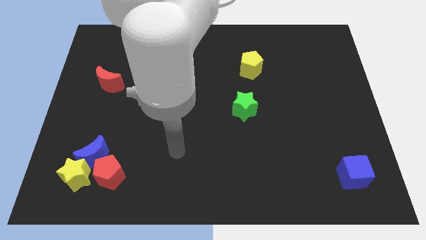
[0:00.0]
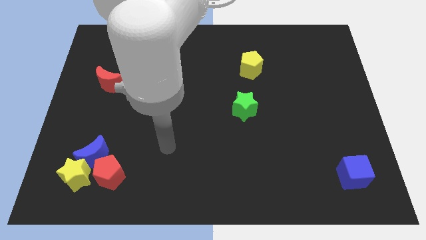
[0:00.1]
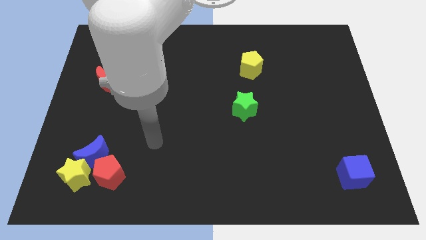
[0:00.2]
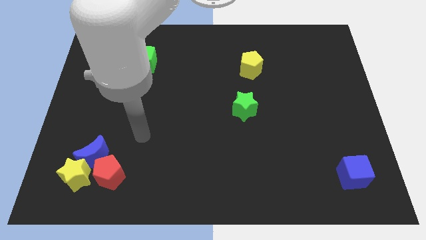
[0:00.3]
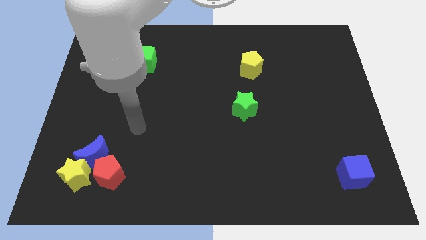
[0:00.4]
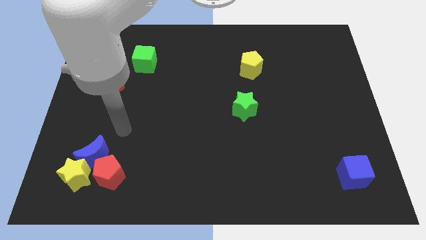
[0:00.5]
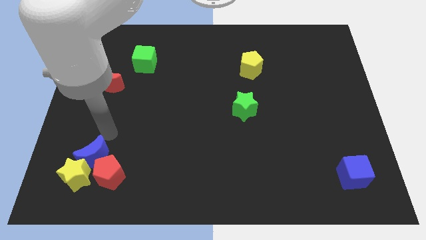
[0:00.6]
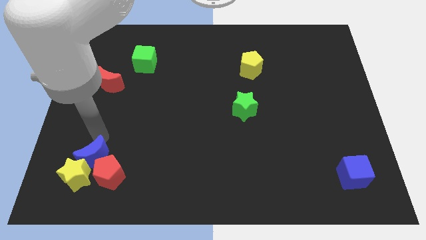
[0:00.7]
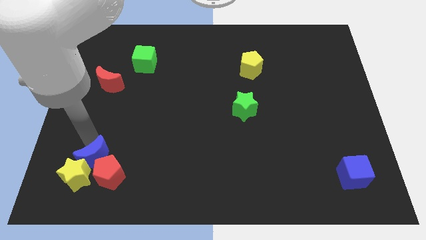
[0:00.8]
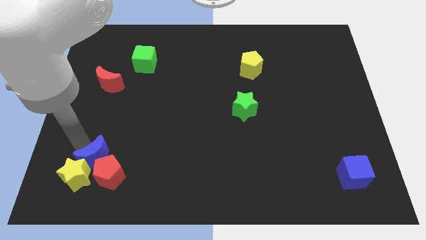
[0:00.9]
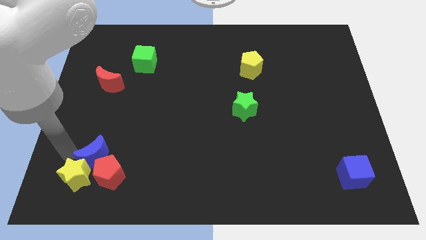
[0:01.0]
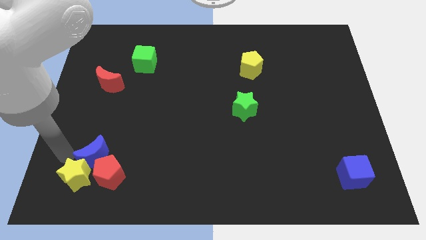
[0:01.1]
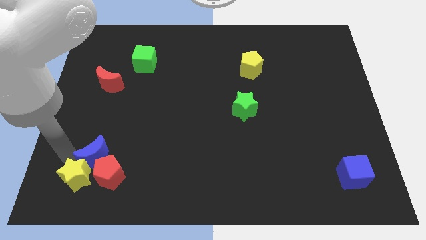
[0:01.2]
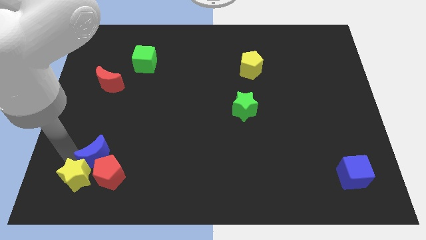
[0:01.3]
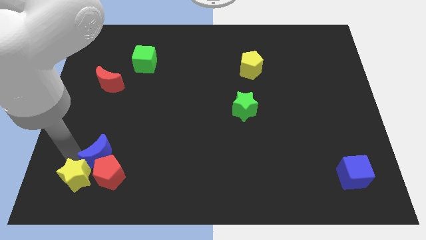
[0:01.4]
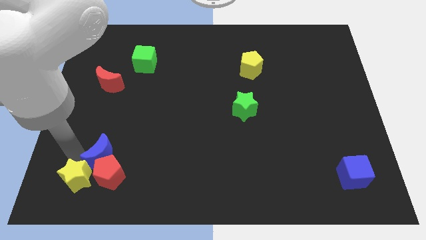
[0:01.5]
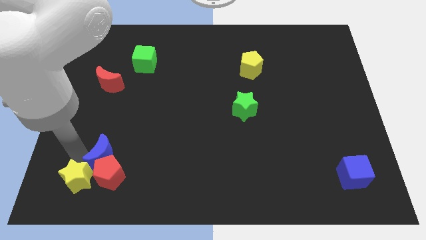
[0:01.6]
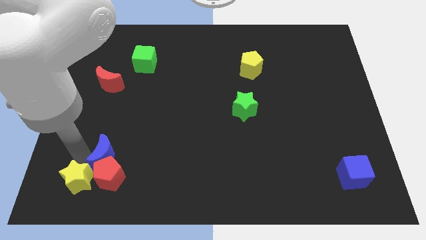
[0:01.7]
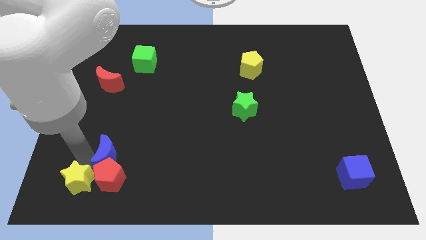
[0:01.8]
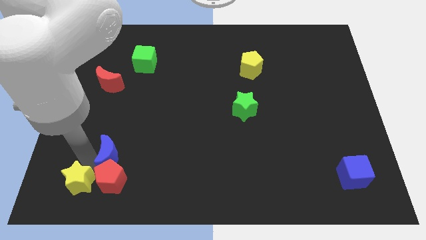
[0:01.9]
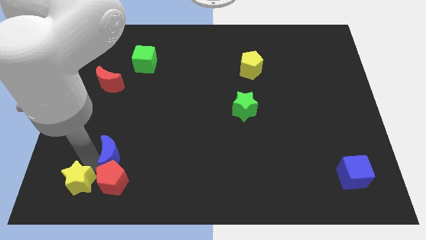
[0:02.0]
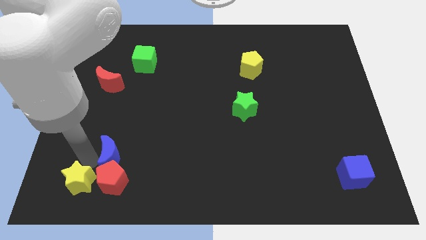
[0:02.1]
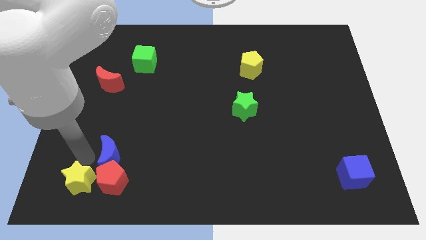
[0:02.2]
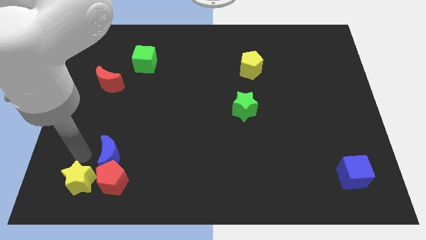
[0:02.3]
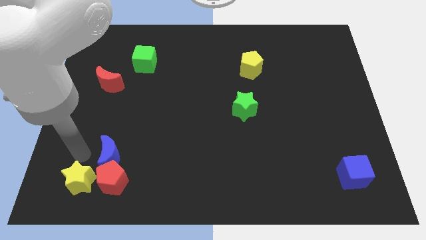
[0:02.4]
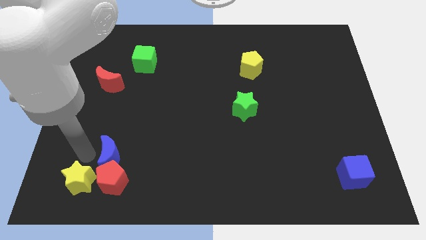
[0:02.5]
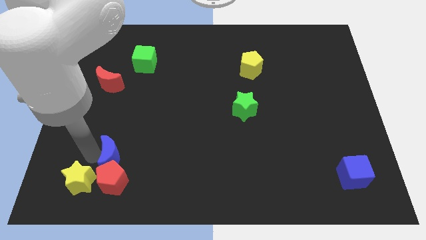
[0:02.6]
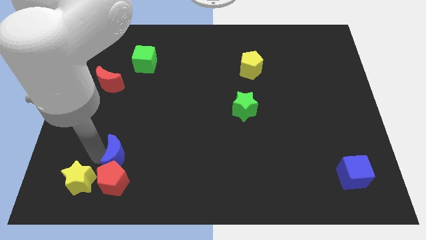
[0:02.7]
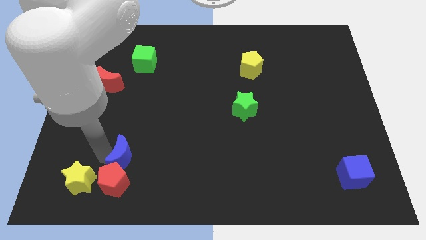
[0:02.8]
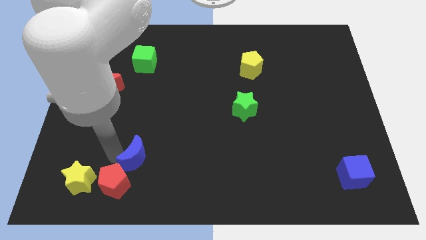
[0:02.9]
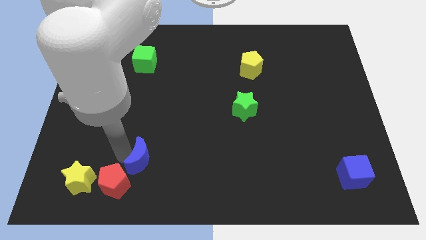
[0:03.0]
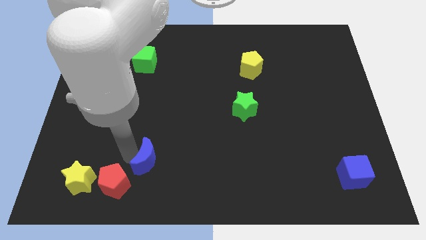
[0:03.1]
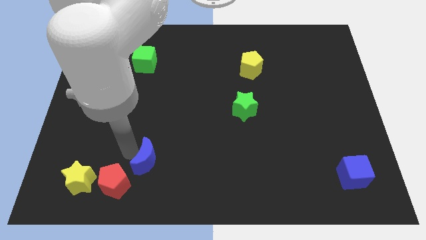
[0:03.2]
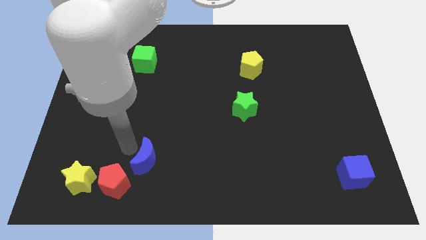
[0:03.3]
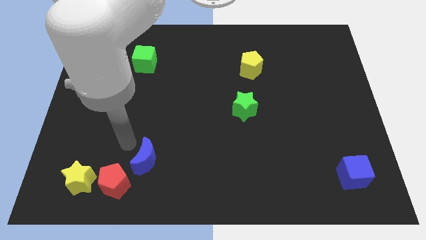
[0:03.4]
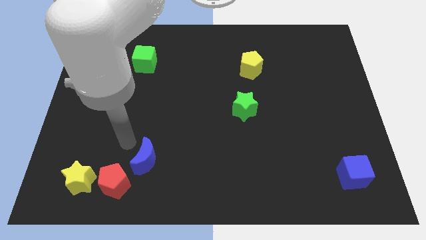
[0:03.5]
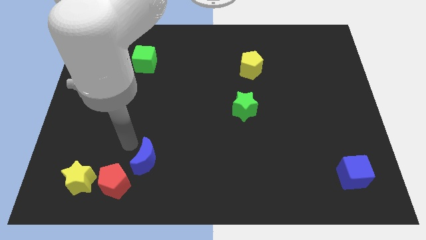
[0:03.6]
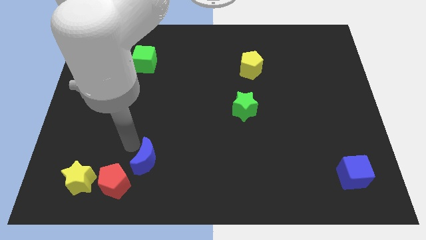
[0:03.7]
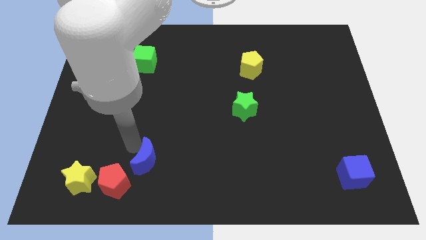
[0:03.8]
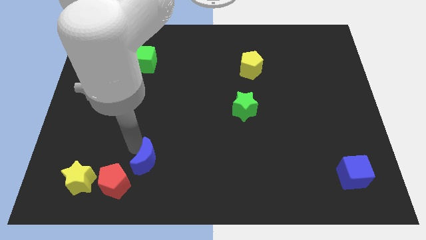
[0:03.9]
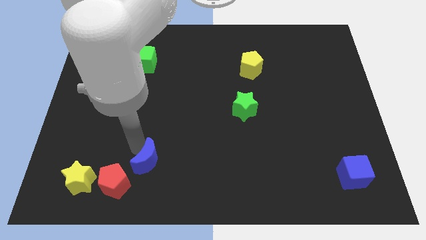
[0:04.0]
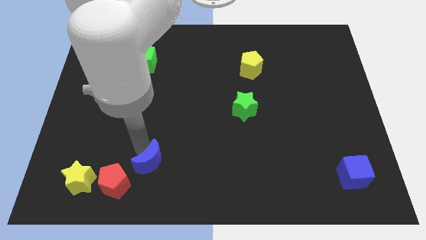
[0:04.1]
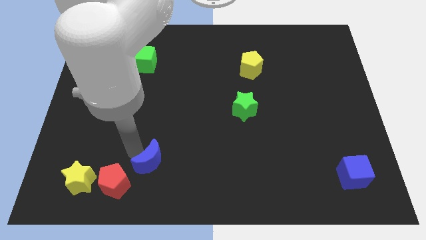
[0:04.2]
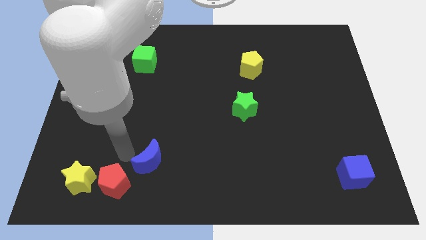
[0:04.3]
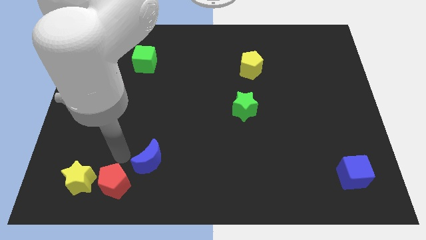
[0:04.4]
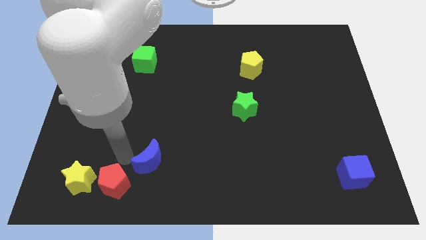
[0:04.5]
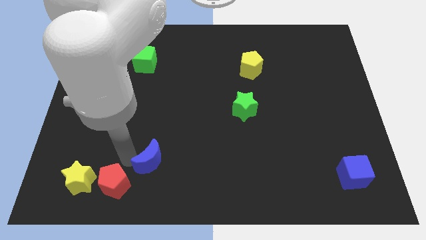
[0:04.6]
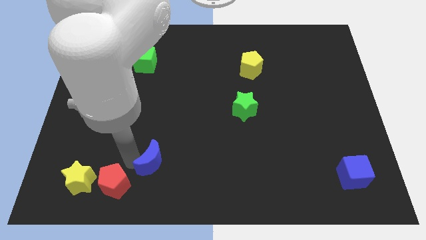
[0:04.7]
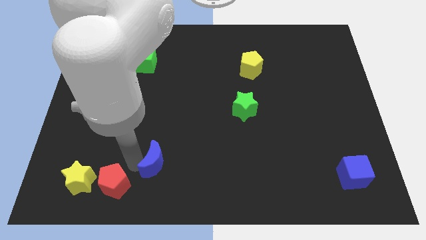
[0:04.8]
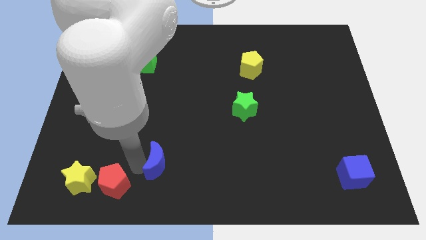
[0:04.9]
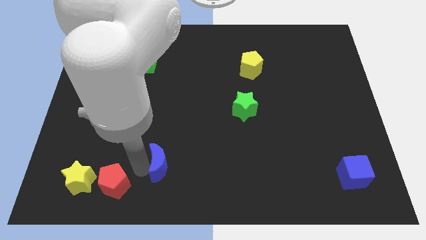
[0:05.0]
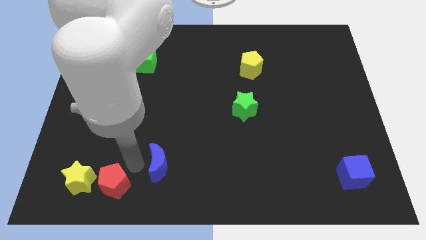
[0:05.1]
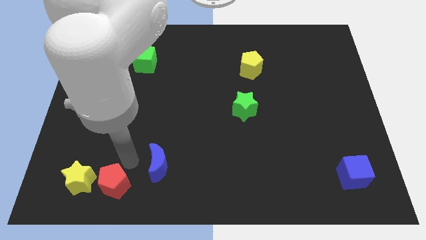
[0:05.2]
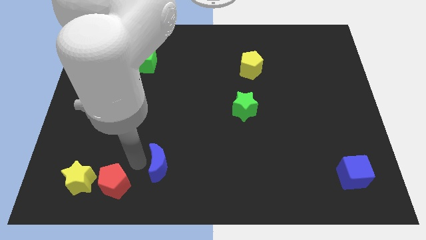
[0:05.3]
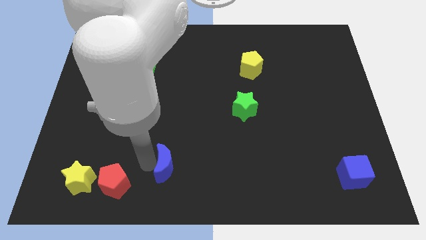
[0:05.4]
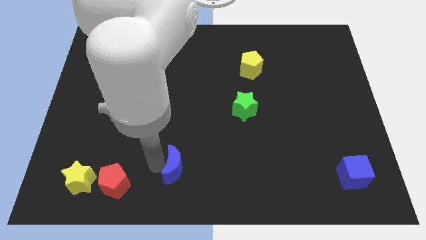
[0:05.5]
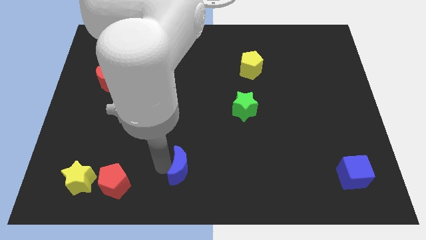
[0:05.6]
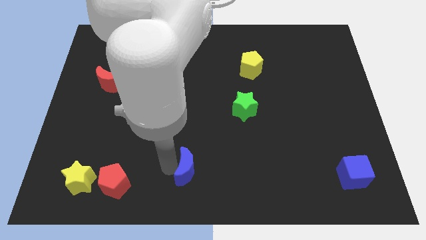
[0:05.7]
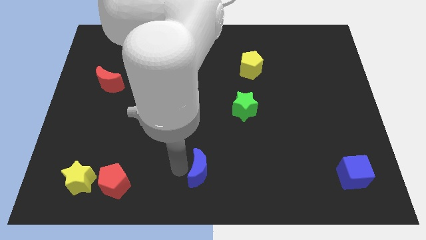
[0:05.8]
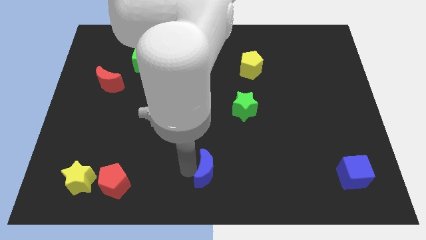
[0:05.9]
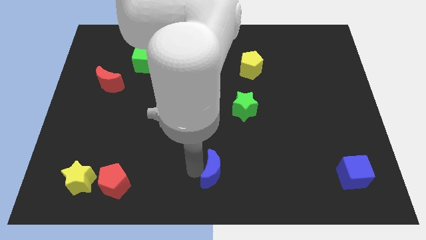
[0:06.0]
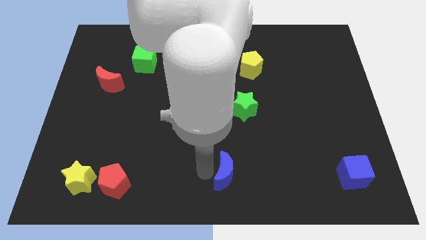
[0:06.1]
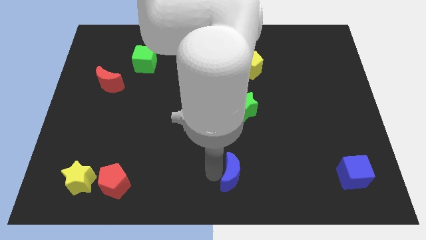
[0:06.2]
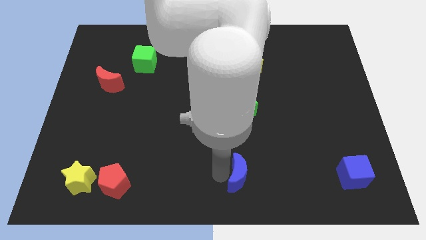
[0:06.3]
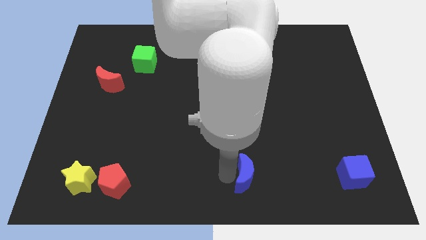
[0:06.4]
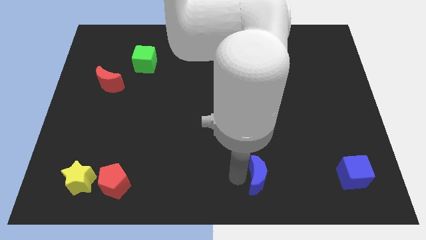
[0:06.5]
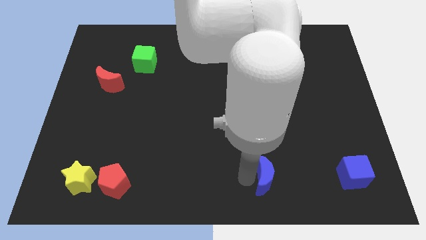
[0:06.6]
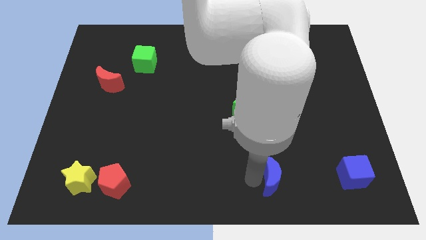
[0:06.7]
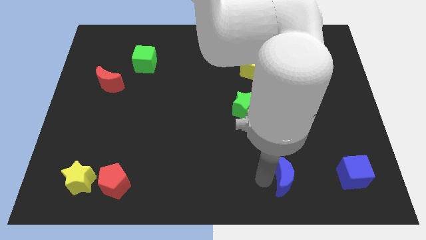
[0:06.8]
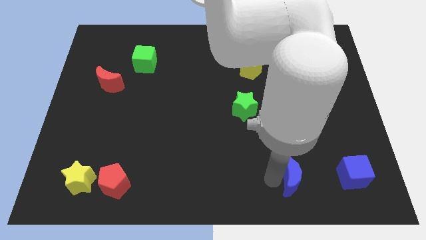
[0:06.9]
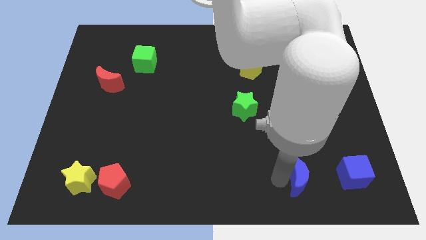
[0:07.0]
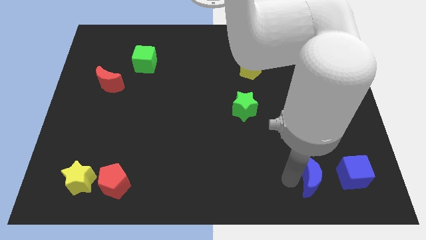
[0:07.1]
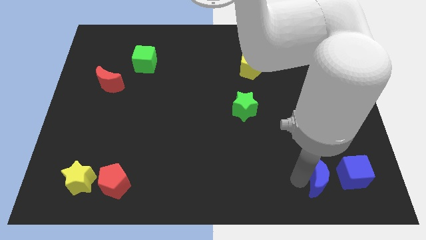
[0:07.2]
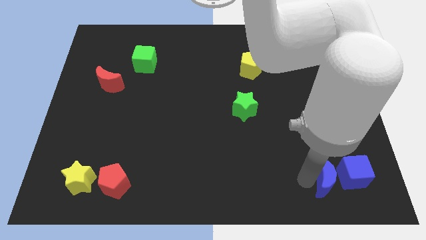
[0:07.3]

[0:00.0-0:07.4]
move the blue moon next to the blue cube
